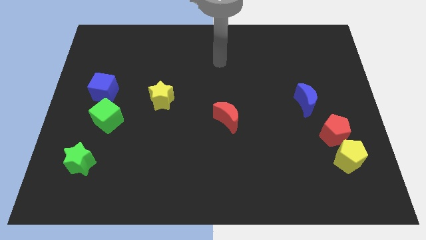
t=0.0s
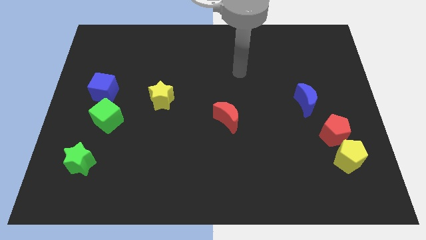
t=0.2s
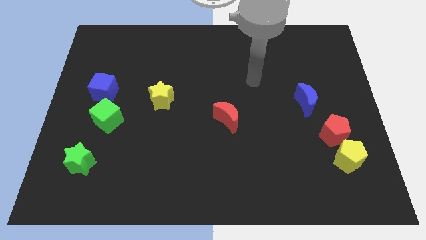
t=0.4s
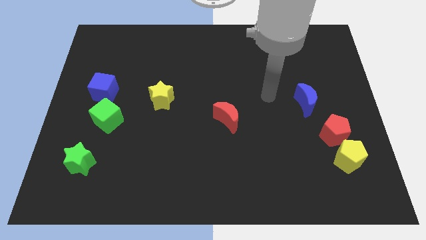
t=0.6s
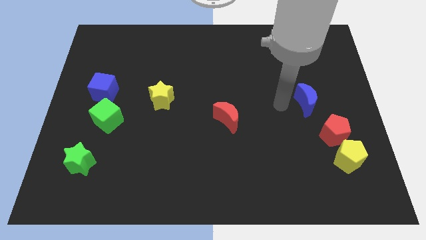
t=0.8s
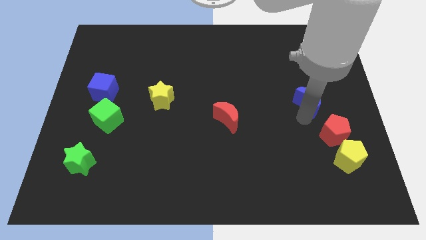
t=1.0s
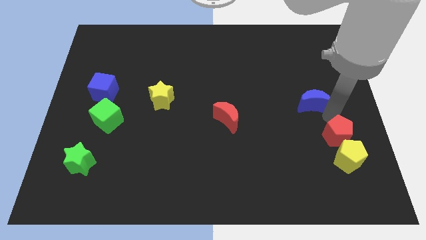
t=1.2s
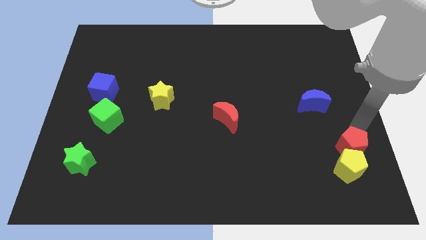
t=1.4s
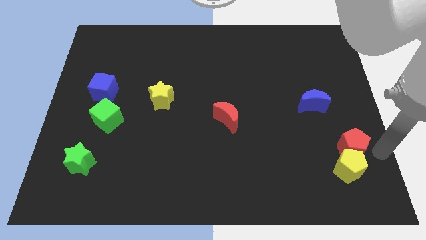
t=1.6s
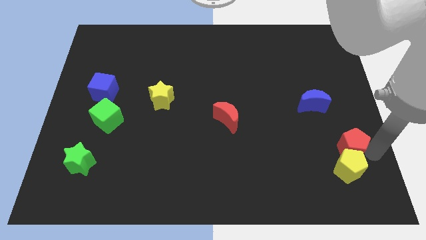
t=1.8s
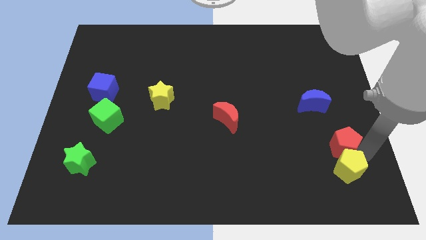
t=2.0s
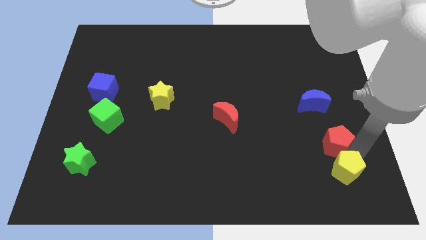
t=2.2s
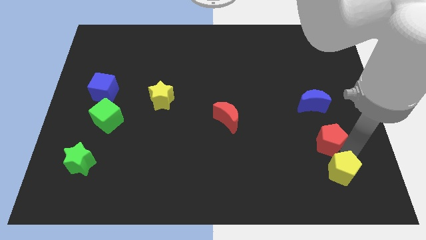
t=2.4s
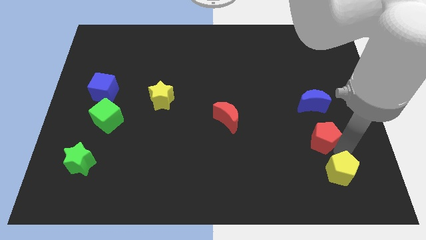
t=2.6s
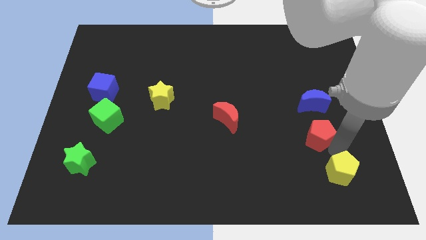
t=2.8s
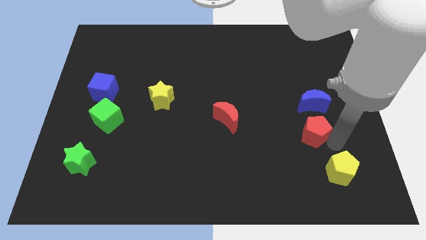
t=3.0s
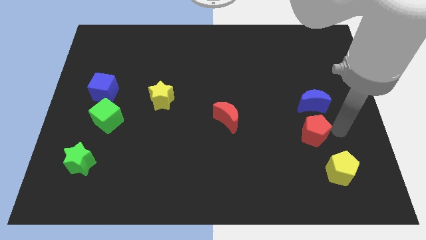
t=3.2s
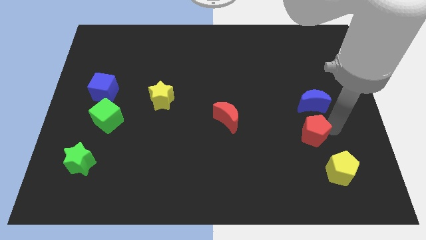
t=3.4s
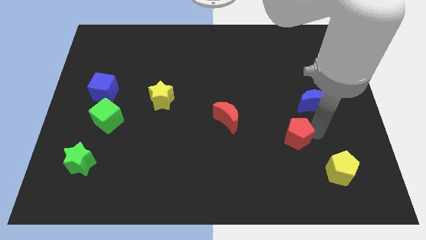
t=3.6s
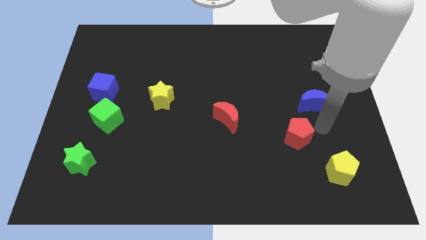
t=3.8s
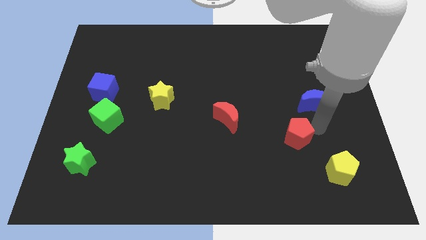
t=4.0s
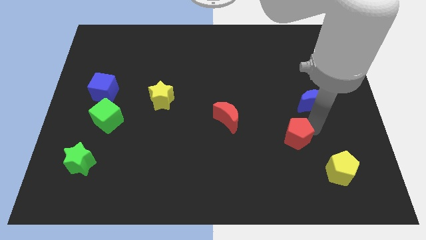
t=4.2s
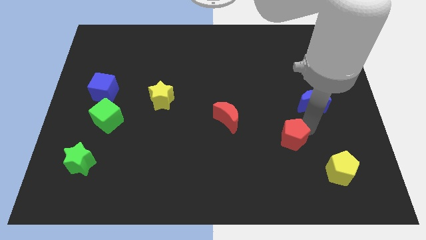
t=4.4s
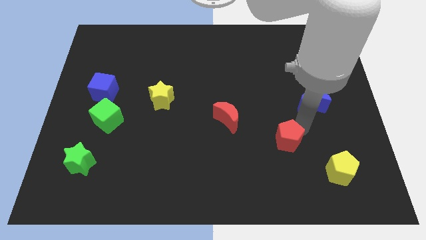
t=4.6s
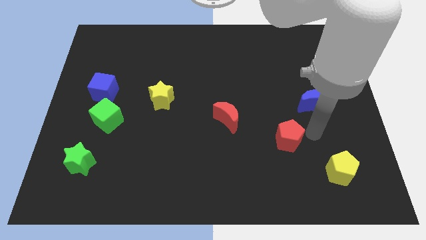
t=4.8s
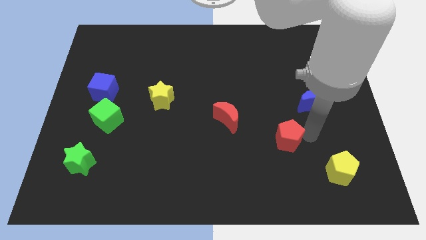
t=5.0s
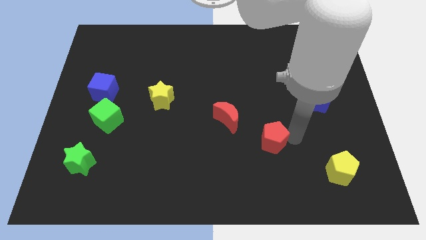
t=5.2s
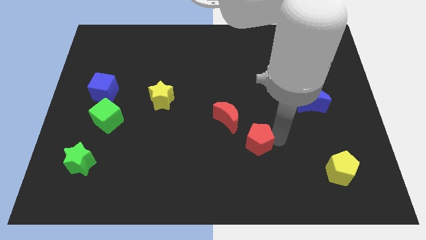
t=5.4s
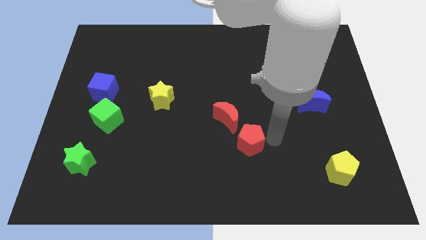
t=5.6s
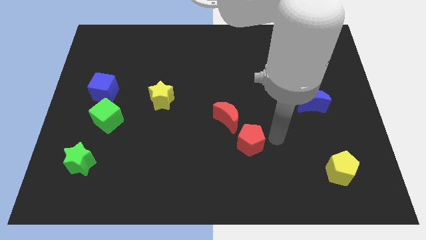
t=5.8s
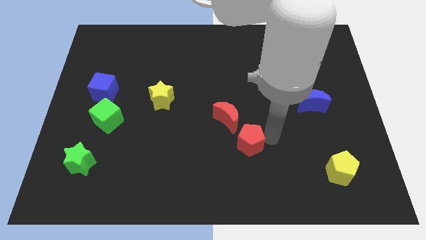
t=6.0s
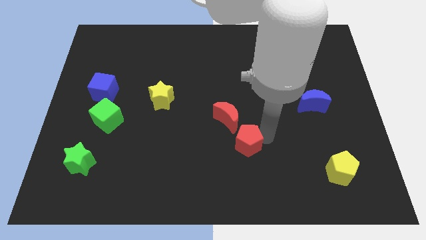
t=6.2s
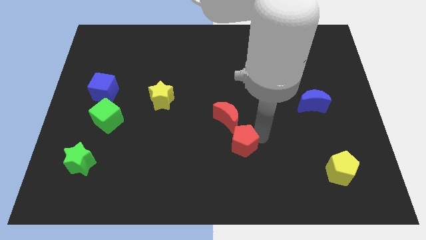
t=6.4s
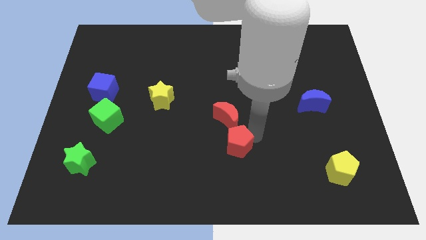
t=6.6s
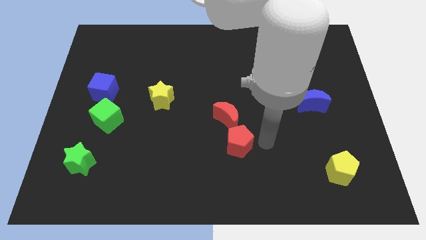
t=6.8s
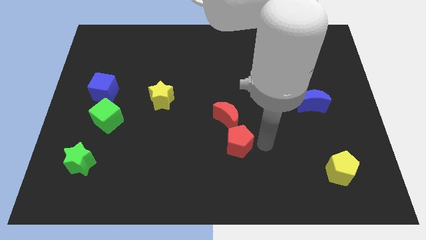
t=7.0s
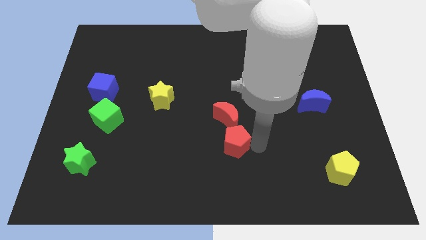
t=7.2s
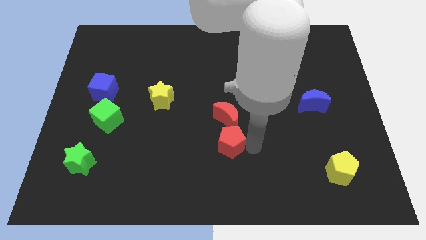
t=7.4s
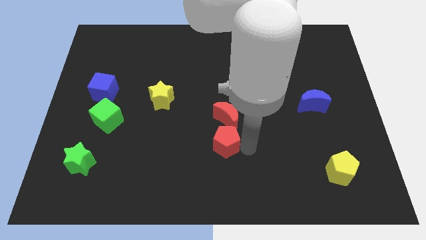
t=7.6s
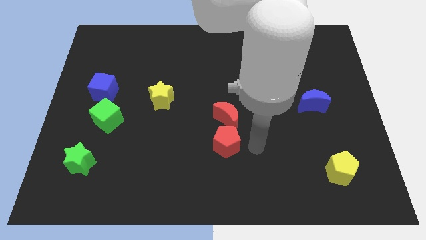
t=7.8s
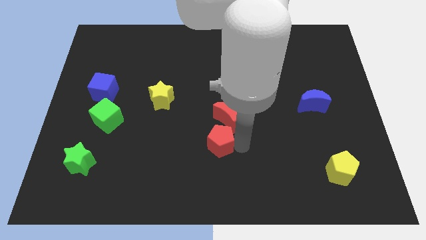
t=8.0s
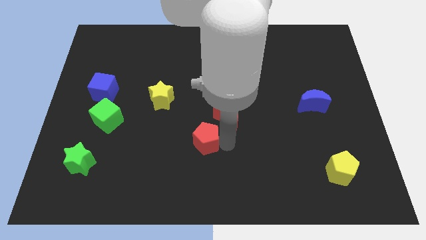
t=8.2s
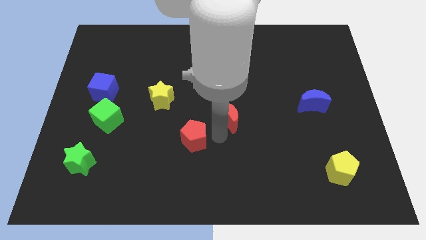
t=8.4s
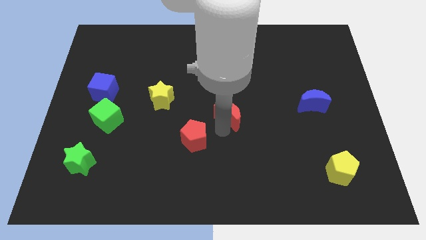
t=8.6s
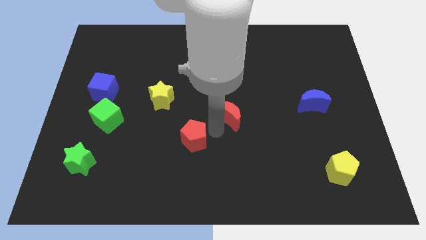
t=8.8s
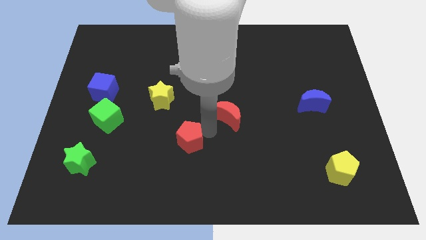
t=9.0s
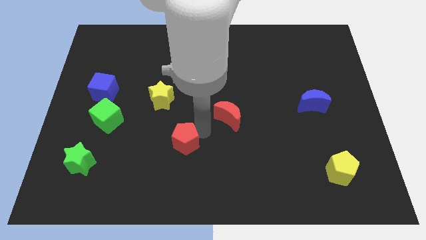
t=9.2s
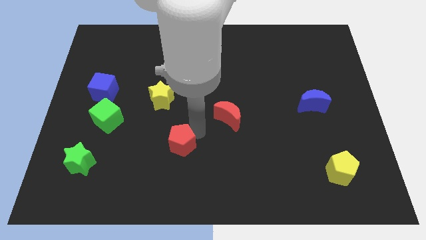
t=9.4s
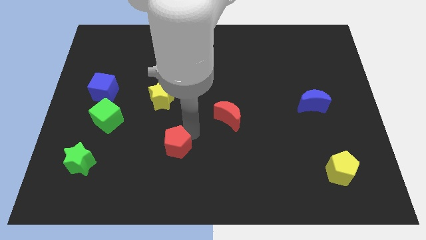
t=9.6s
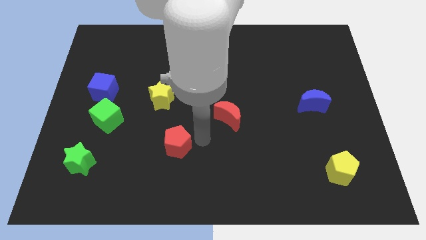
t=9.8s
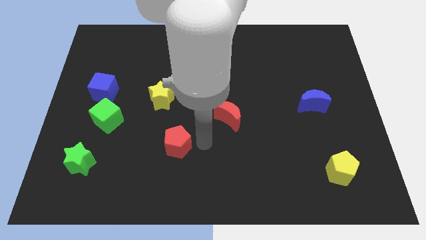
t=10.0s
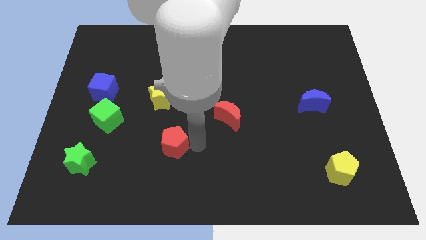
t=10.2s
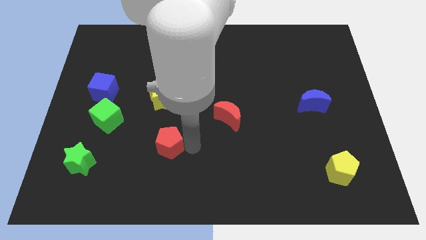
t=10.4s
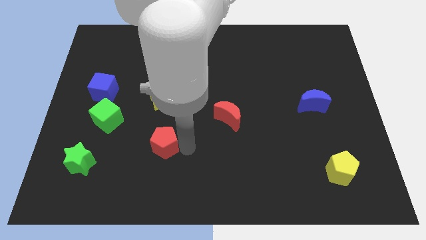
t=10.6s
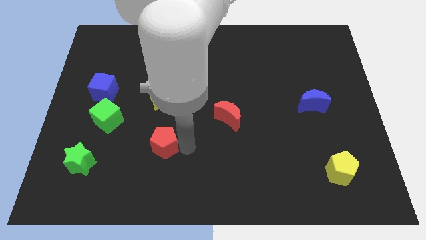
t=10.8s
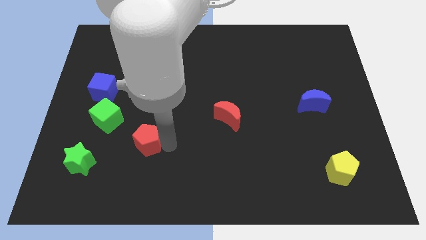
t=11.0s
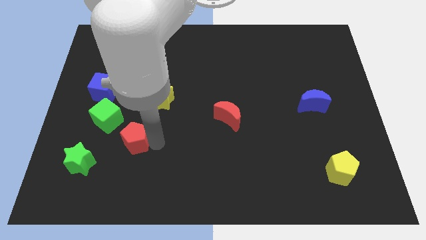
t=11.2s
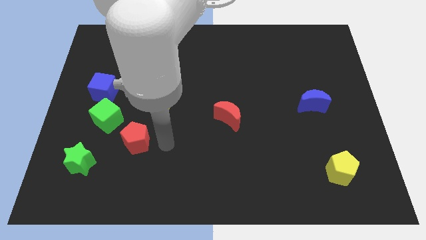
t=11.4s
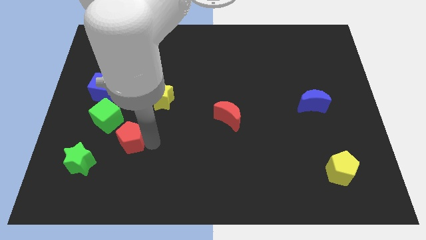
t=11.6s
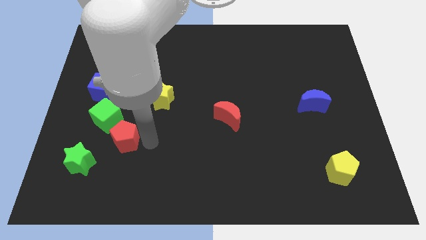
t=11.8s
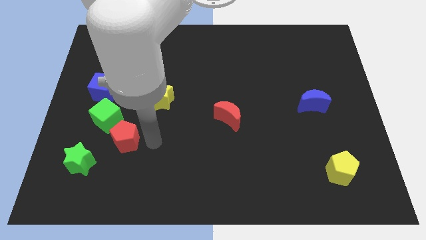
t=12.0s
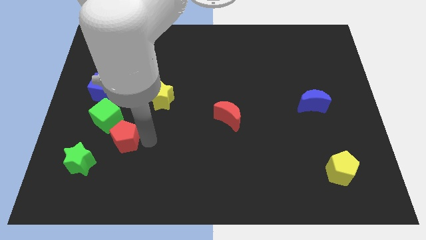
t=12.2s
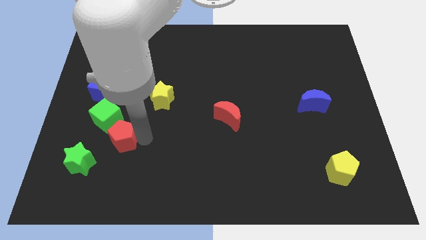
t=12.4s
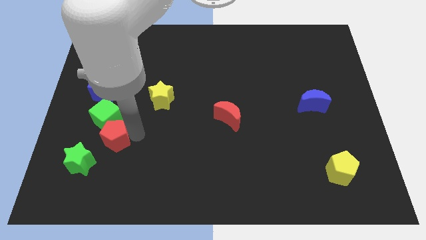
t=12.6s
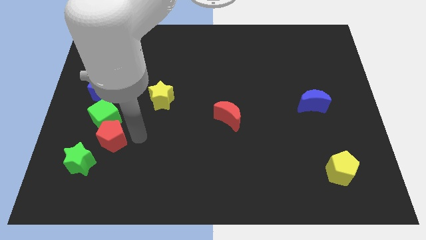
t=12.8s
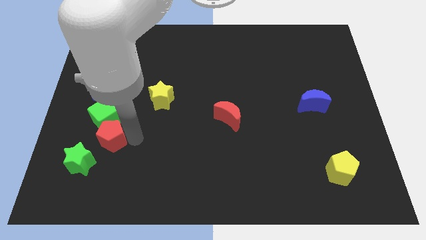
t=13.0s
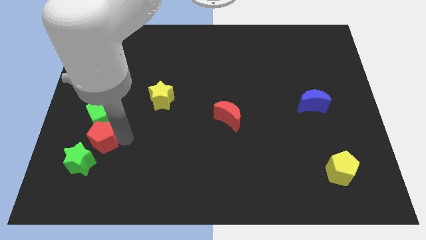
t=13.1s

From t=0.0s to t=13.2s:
push the red pentagon to the top side of the green star

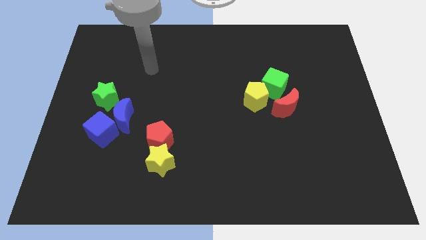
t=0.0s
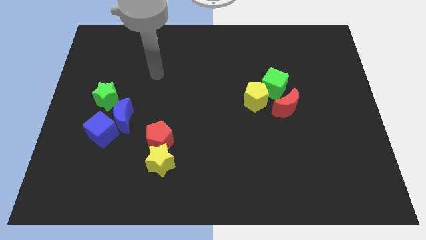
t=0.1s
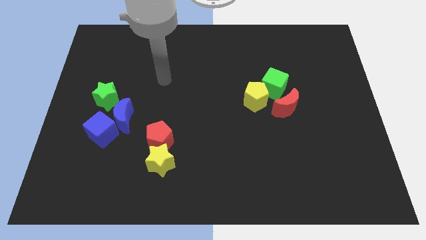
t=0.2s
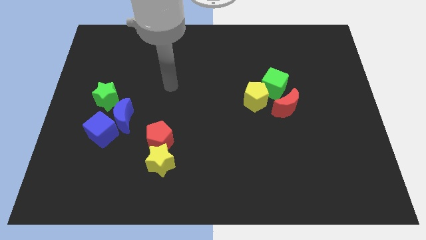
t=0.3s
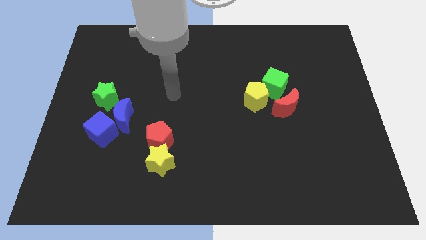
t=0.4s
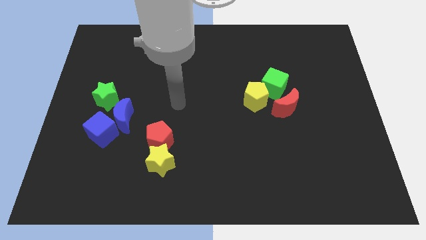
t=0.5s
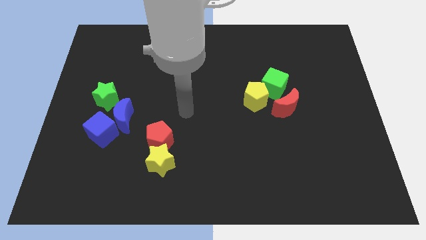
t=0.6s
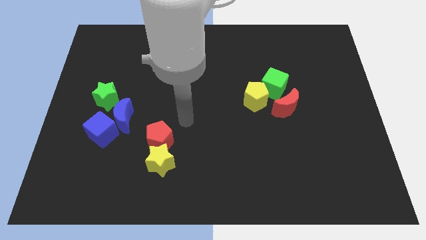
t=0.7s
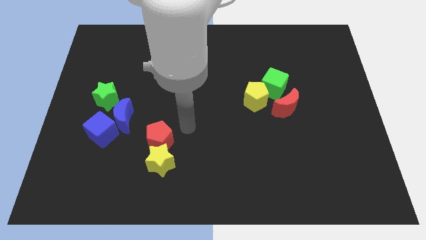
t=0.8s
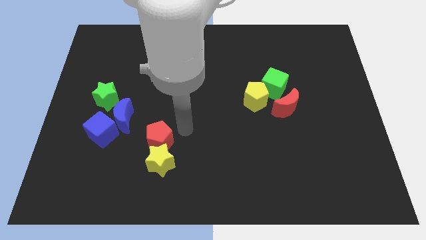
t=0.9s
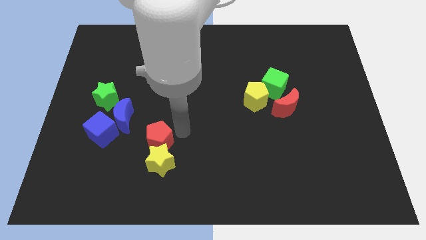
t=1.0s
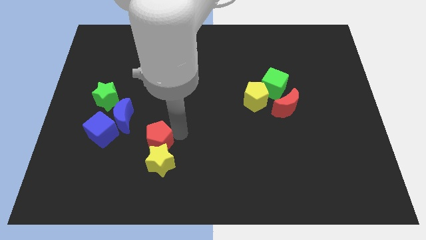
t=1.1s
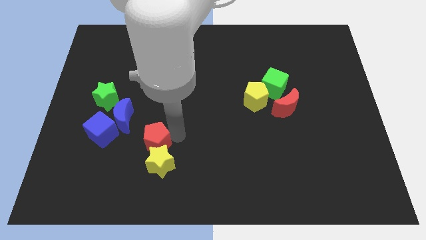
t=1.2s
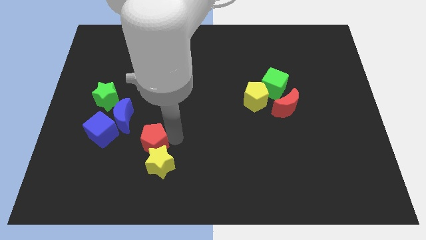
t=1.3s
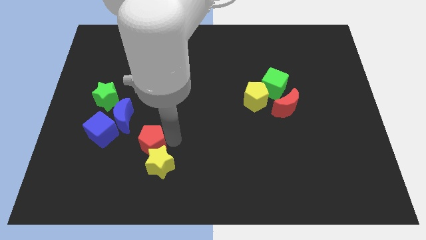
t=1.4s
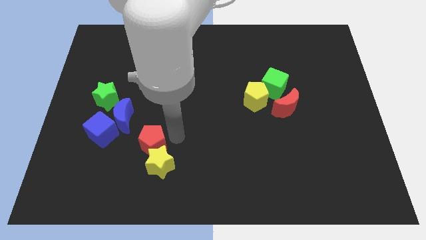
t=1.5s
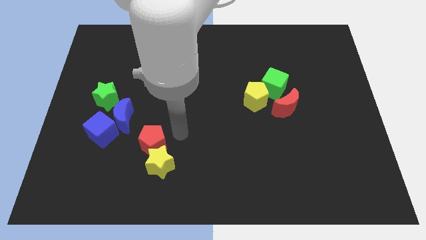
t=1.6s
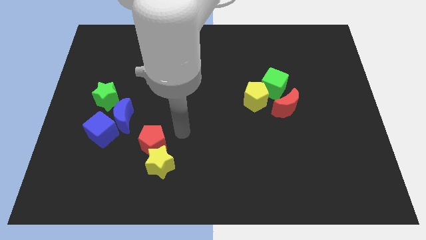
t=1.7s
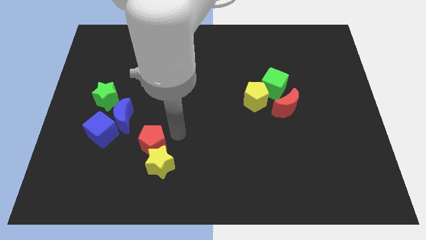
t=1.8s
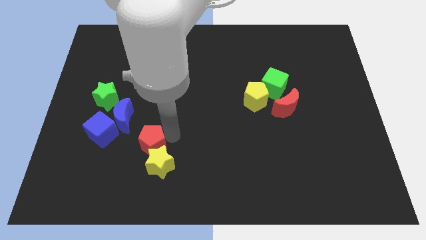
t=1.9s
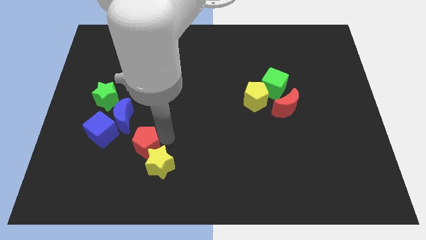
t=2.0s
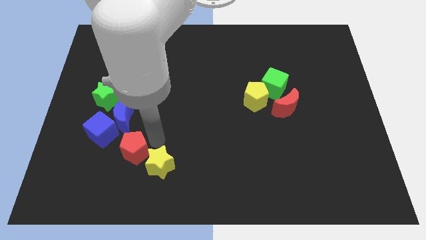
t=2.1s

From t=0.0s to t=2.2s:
slide the red pentagon left of the yellow star
